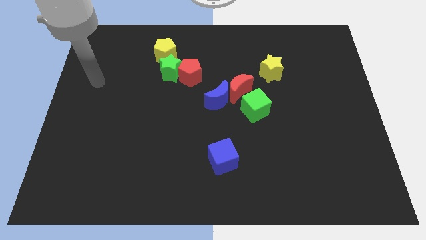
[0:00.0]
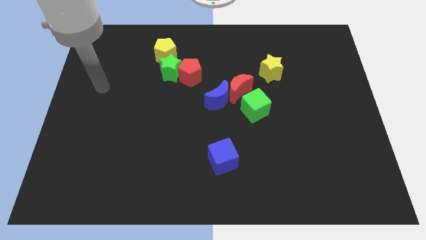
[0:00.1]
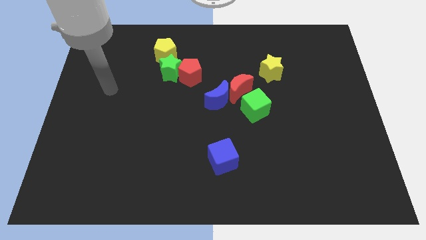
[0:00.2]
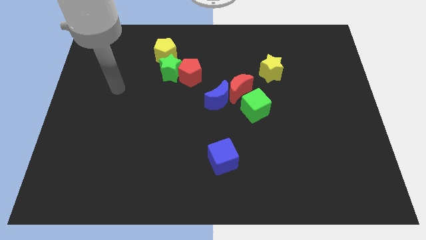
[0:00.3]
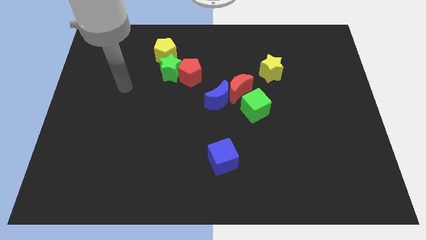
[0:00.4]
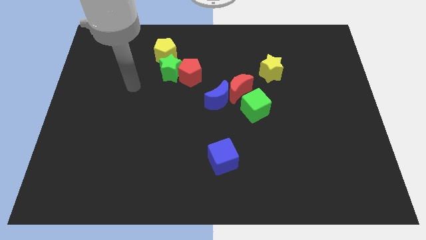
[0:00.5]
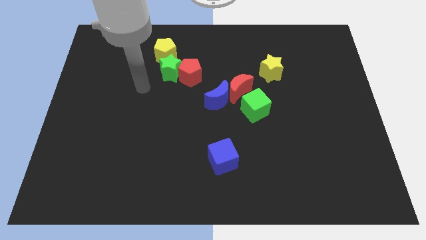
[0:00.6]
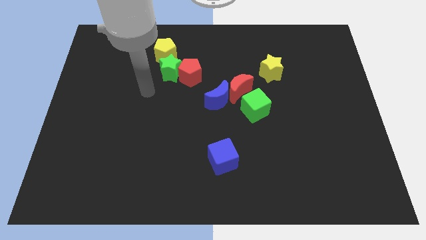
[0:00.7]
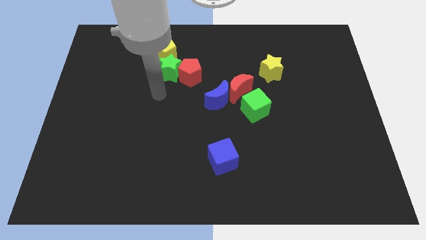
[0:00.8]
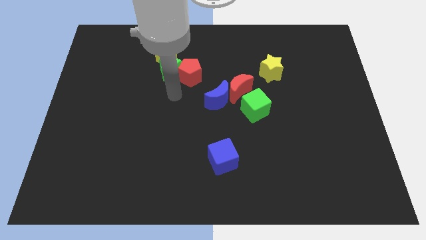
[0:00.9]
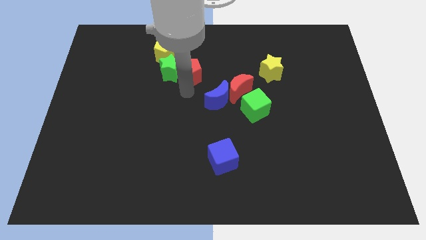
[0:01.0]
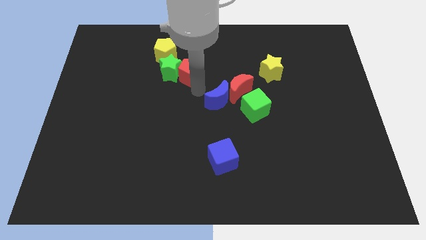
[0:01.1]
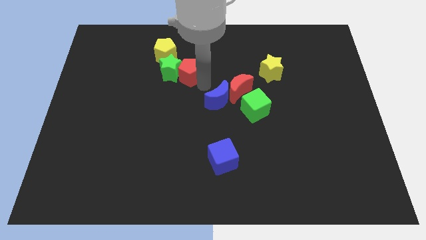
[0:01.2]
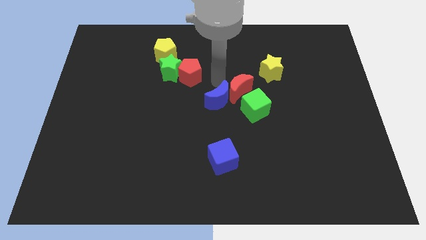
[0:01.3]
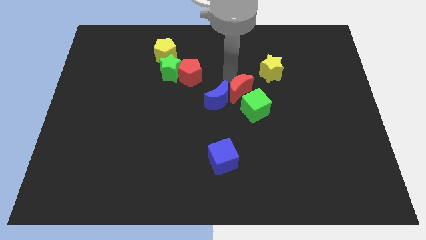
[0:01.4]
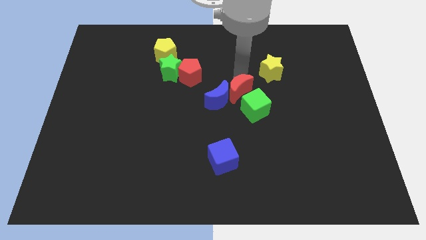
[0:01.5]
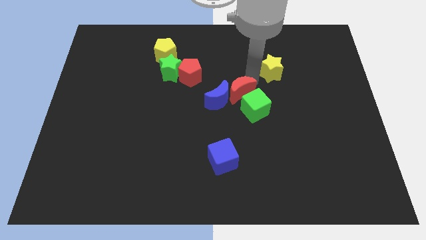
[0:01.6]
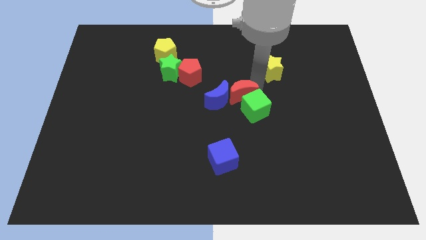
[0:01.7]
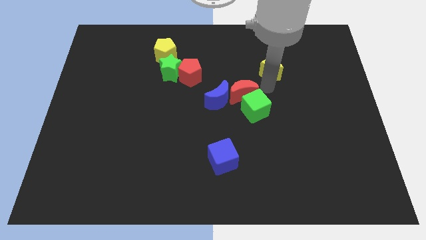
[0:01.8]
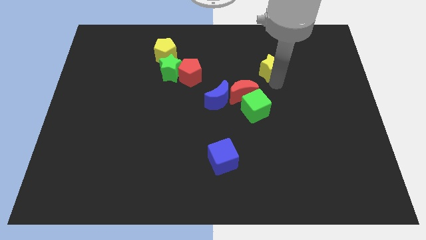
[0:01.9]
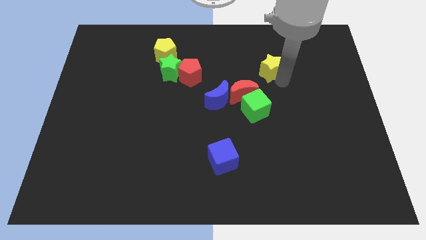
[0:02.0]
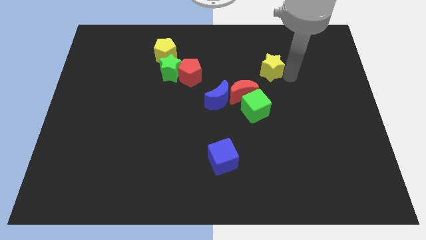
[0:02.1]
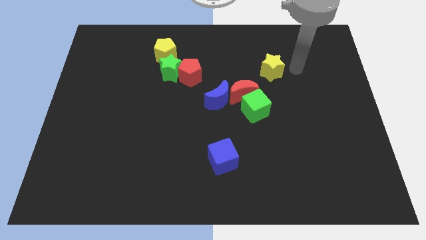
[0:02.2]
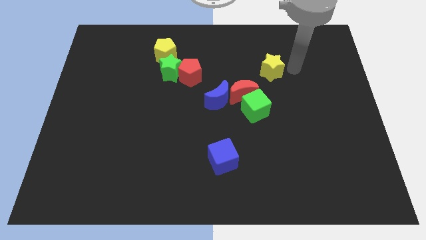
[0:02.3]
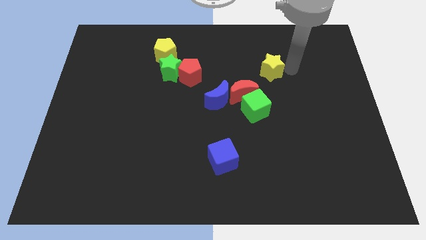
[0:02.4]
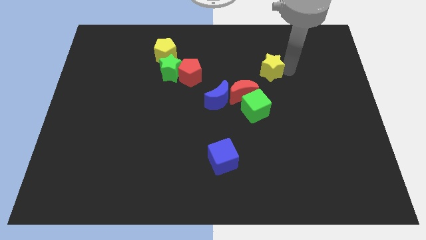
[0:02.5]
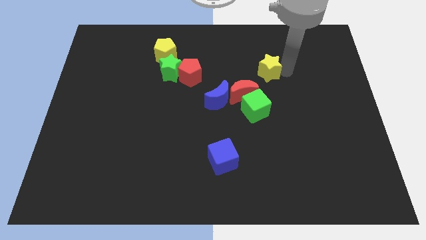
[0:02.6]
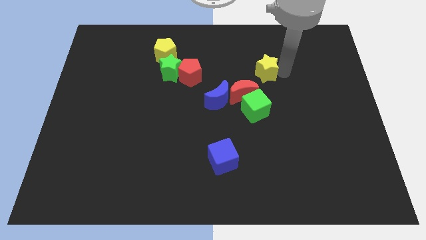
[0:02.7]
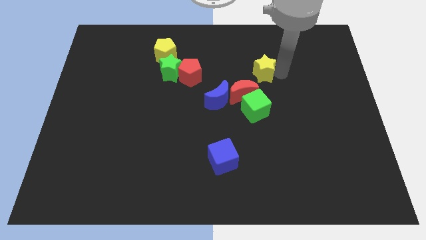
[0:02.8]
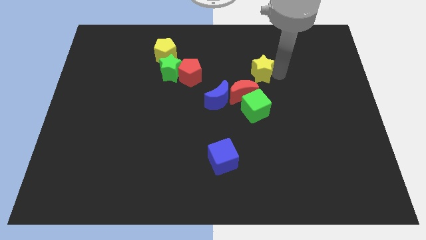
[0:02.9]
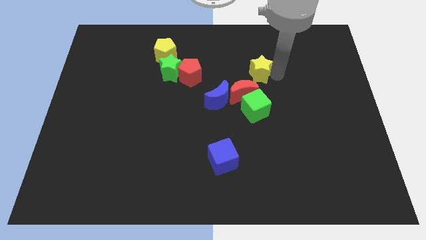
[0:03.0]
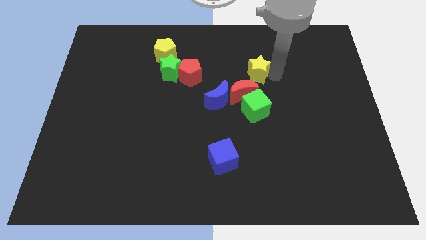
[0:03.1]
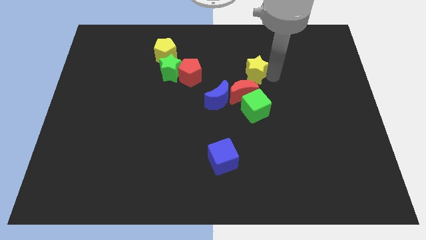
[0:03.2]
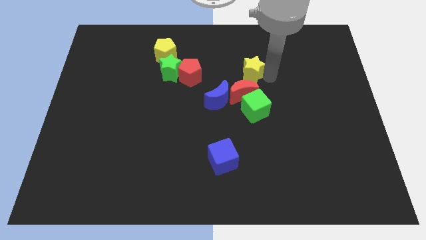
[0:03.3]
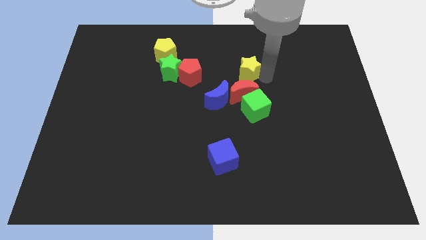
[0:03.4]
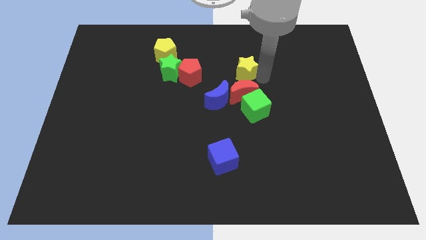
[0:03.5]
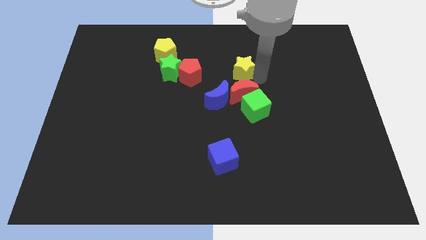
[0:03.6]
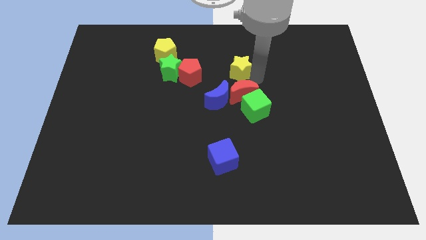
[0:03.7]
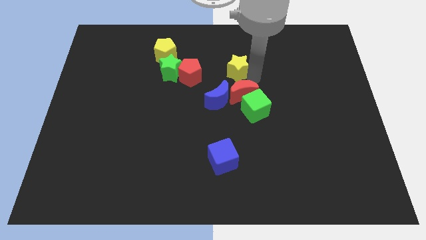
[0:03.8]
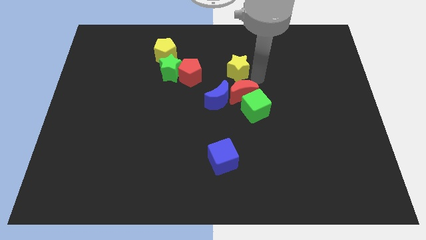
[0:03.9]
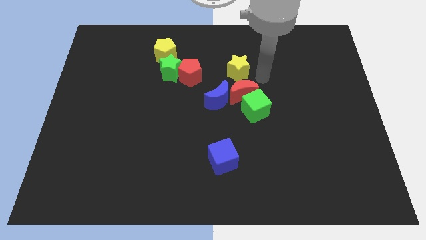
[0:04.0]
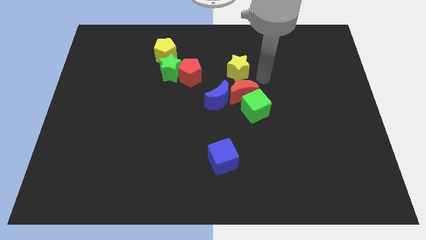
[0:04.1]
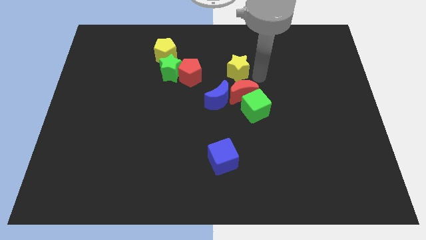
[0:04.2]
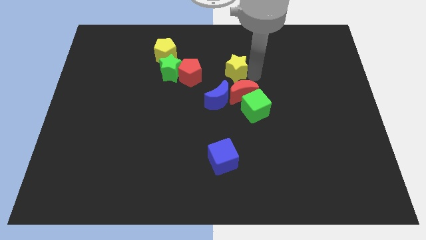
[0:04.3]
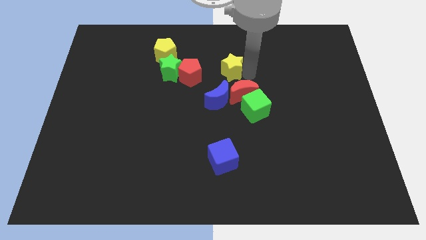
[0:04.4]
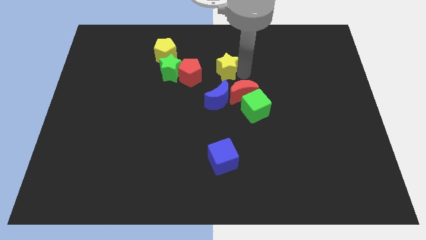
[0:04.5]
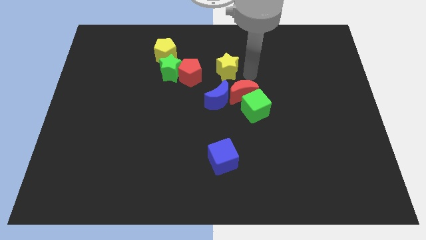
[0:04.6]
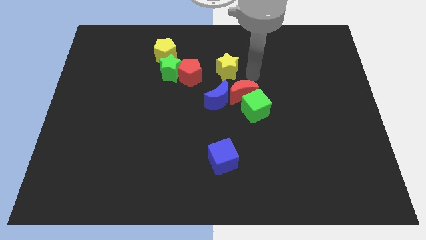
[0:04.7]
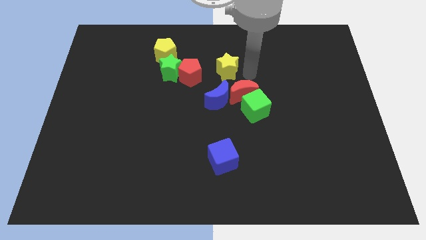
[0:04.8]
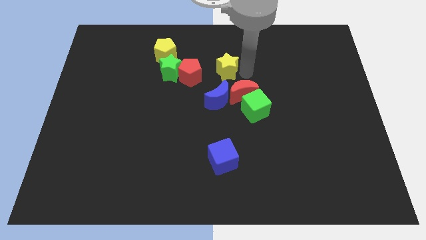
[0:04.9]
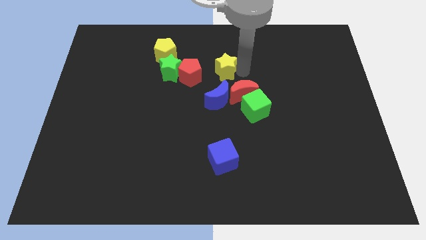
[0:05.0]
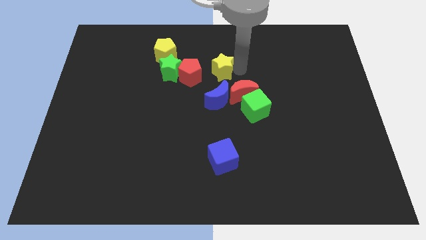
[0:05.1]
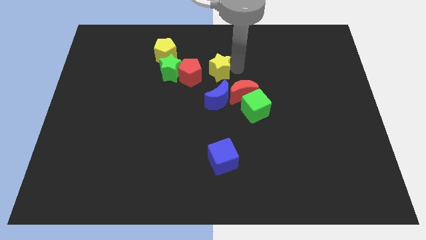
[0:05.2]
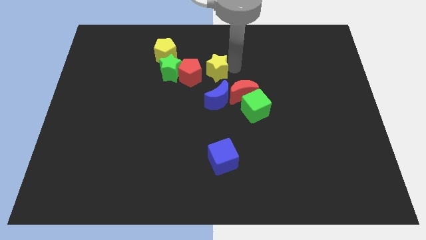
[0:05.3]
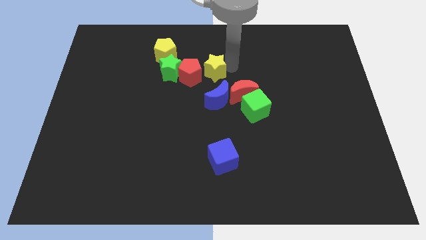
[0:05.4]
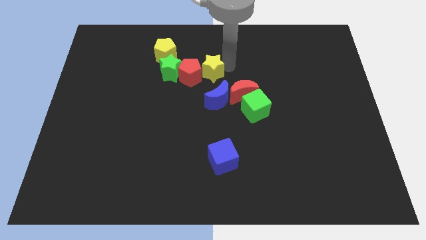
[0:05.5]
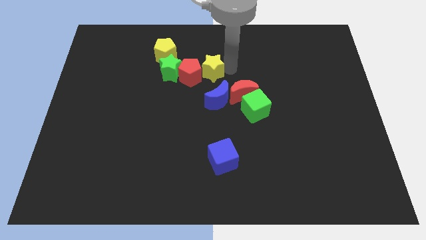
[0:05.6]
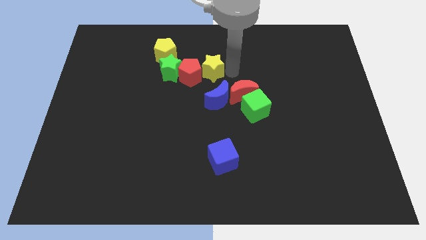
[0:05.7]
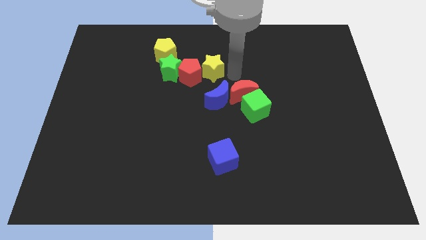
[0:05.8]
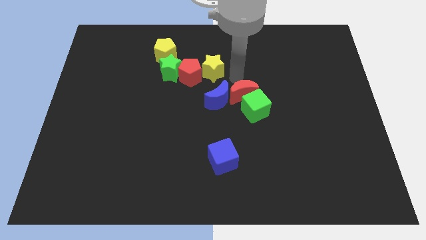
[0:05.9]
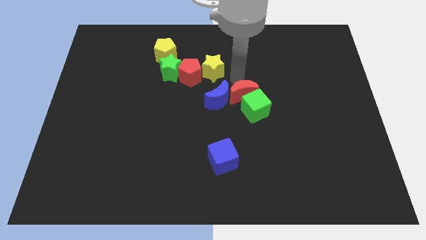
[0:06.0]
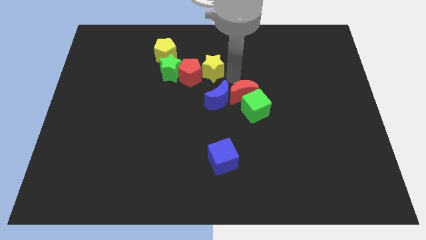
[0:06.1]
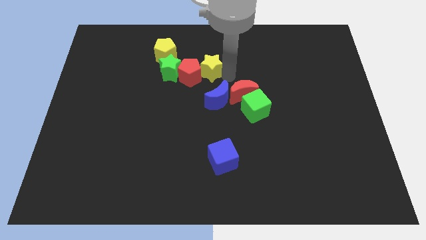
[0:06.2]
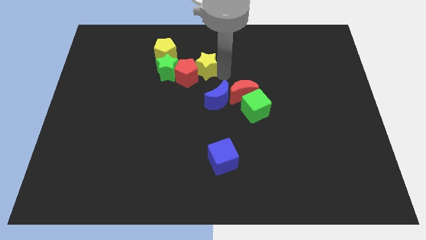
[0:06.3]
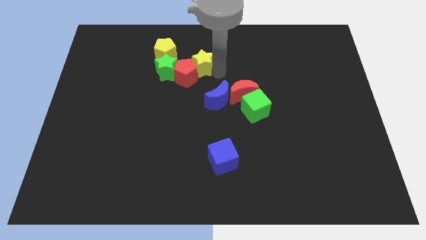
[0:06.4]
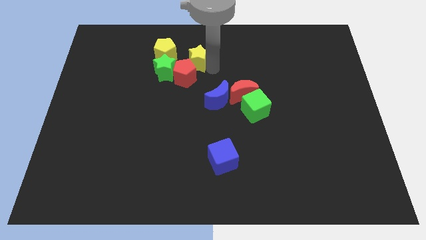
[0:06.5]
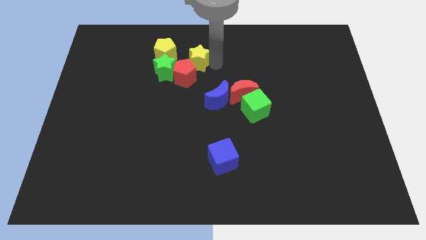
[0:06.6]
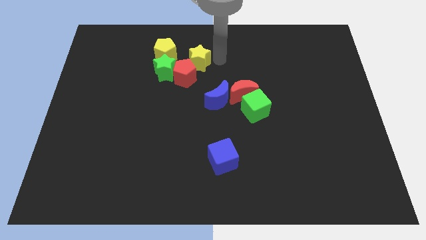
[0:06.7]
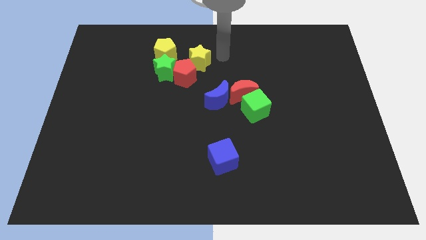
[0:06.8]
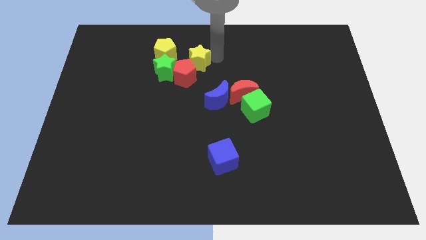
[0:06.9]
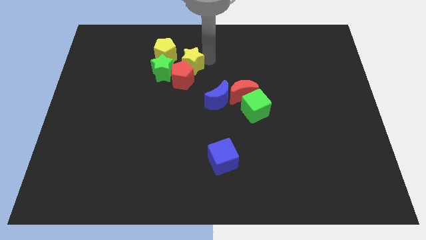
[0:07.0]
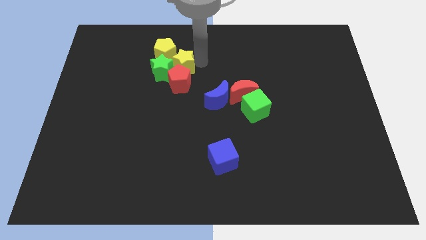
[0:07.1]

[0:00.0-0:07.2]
push the yellow star next to the green star
